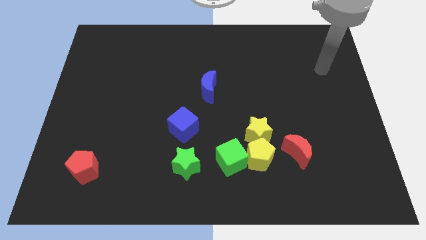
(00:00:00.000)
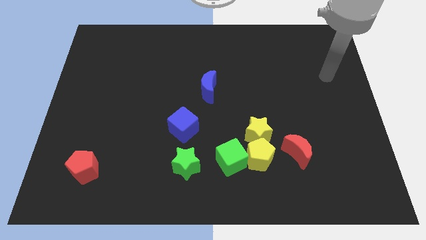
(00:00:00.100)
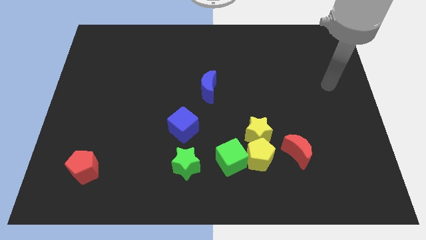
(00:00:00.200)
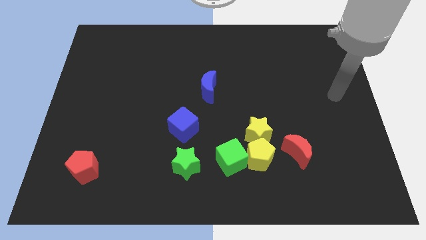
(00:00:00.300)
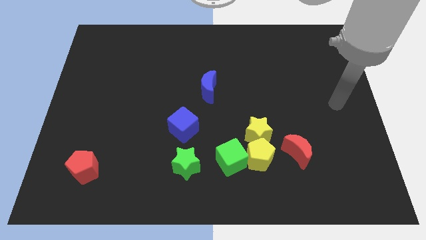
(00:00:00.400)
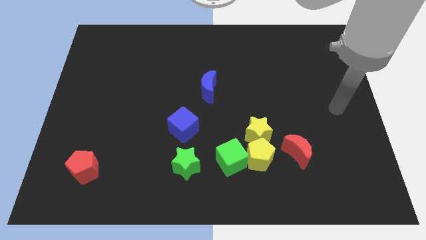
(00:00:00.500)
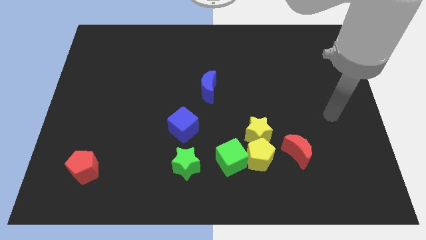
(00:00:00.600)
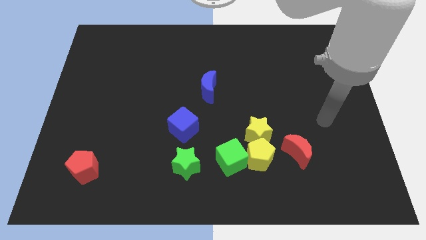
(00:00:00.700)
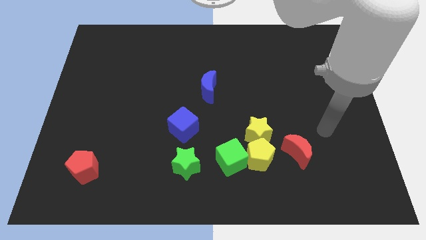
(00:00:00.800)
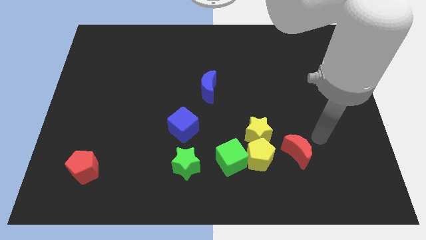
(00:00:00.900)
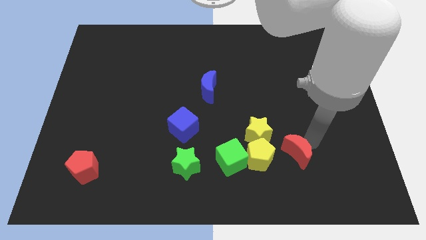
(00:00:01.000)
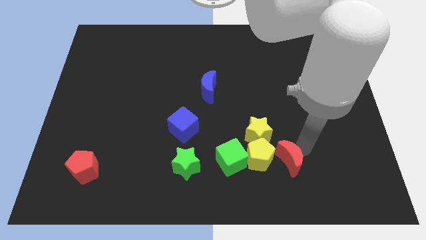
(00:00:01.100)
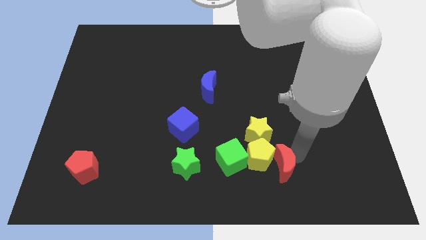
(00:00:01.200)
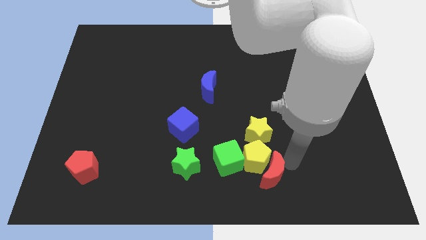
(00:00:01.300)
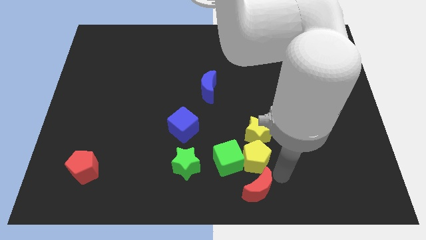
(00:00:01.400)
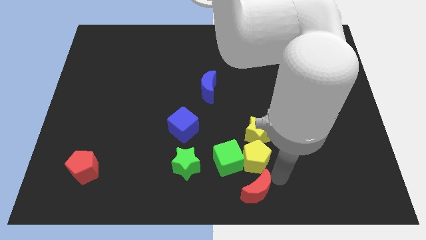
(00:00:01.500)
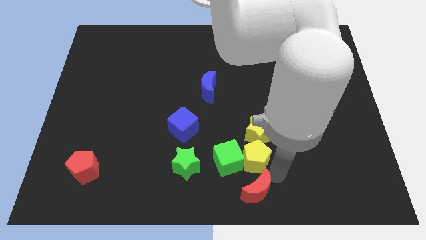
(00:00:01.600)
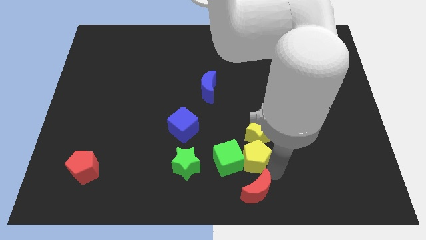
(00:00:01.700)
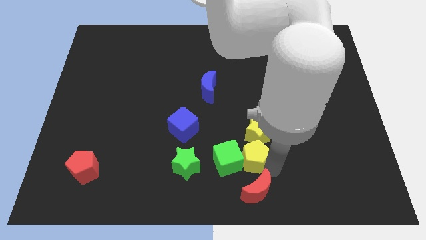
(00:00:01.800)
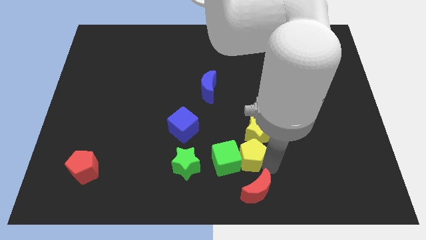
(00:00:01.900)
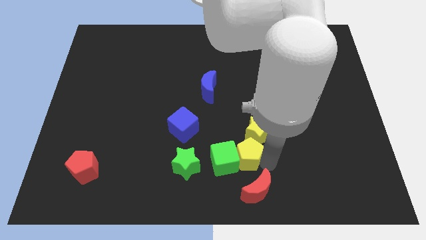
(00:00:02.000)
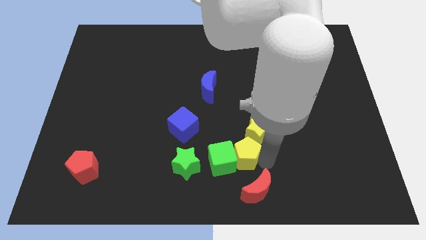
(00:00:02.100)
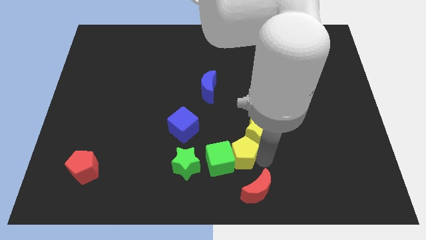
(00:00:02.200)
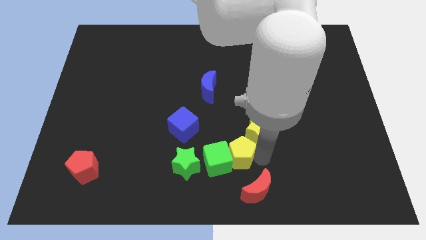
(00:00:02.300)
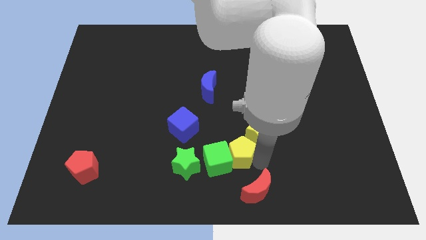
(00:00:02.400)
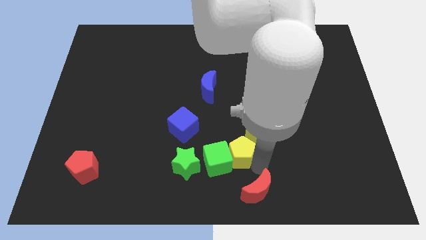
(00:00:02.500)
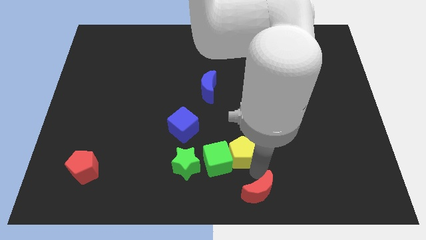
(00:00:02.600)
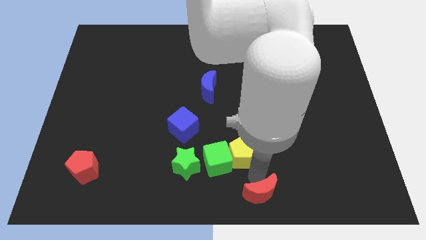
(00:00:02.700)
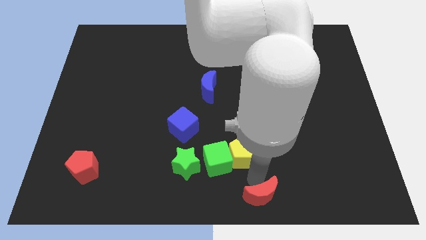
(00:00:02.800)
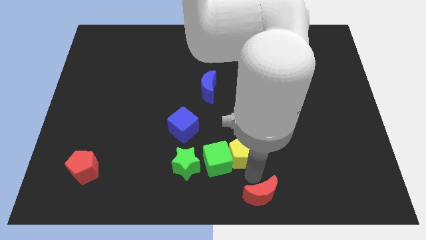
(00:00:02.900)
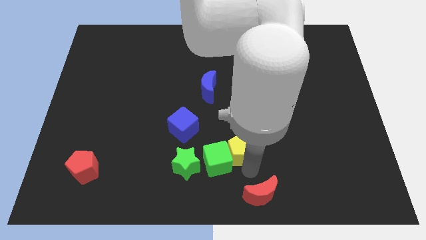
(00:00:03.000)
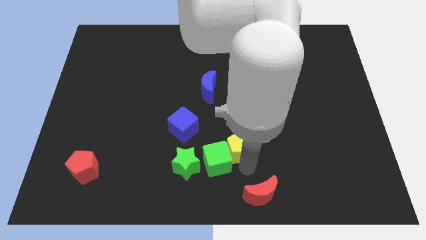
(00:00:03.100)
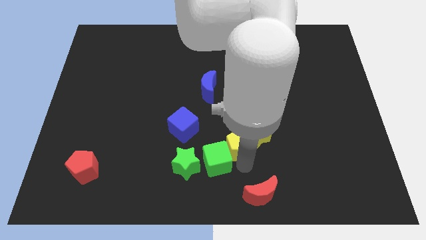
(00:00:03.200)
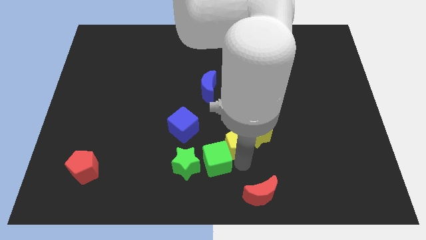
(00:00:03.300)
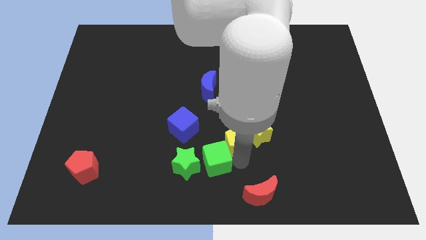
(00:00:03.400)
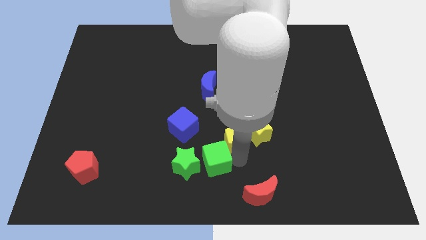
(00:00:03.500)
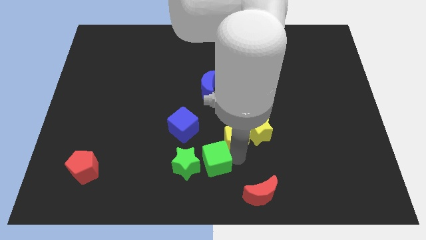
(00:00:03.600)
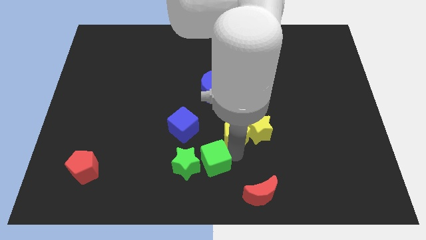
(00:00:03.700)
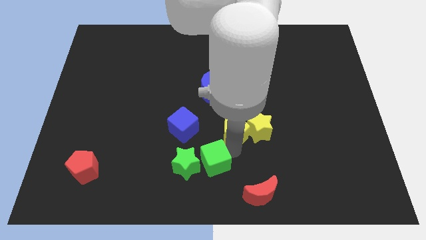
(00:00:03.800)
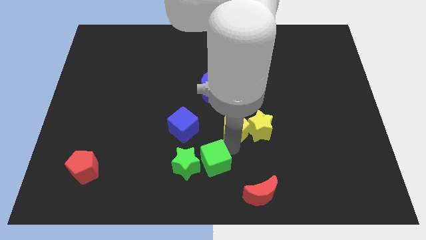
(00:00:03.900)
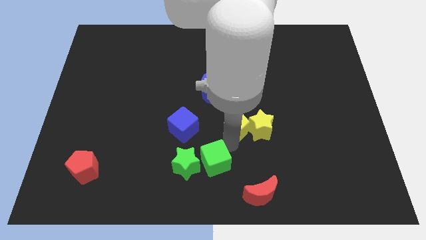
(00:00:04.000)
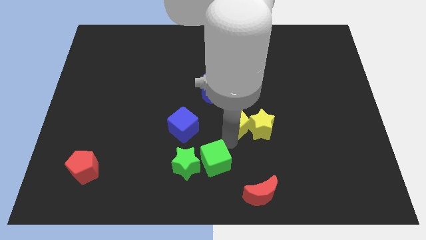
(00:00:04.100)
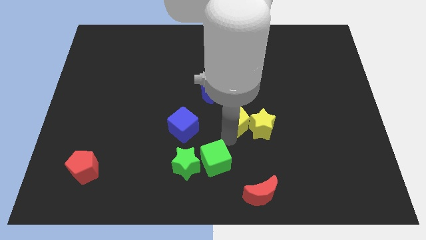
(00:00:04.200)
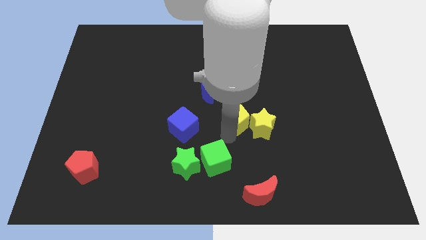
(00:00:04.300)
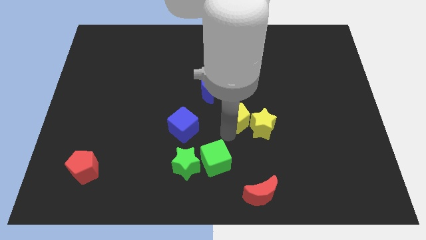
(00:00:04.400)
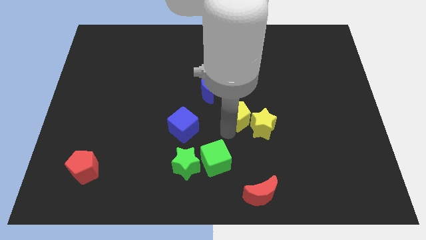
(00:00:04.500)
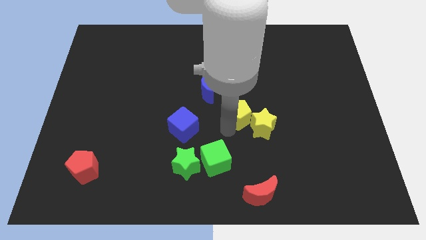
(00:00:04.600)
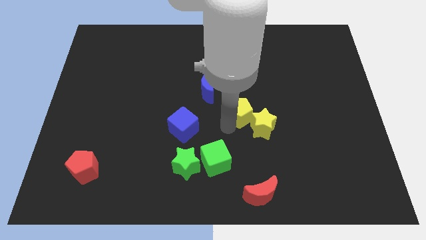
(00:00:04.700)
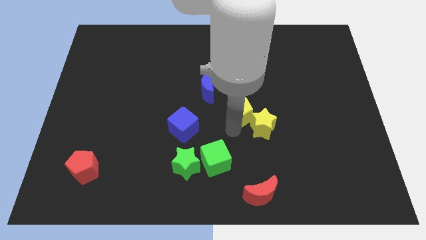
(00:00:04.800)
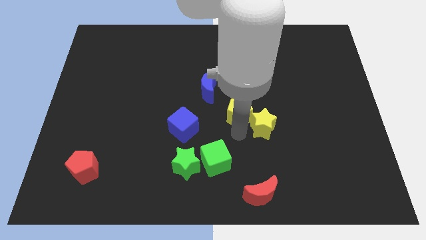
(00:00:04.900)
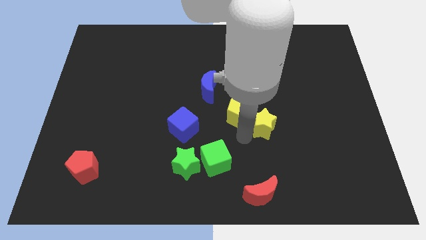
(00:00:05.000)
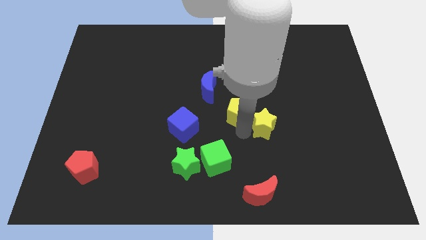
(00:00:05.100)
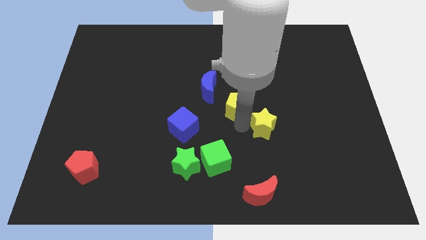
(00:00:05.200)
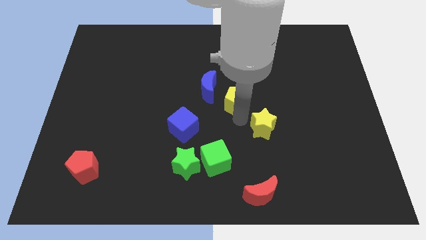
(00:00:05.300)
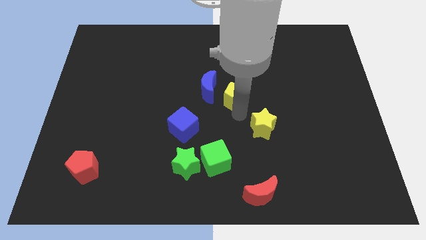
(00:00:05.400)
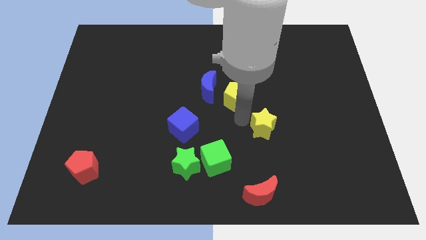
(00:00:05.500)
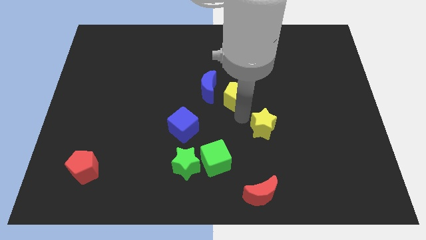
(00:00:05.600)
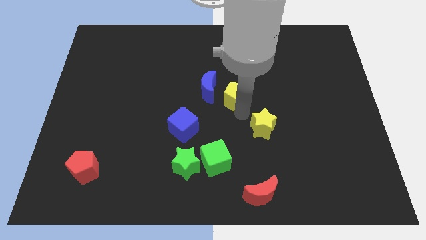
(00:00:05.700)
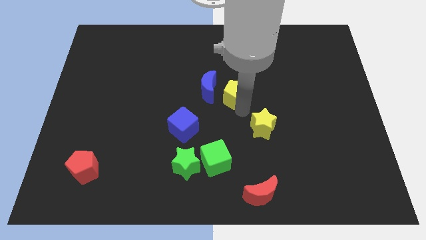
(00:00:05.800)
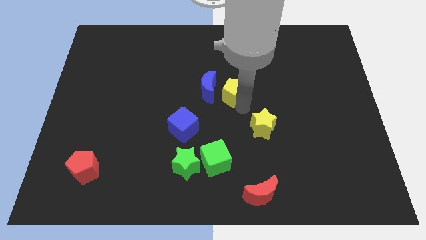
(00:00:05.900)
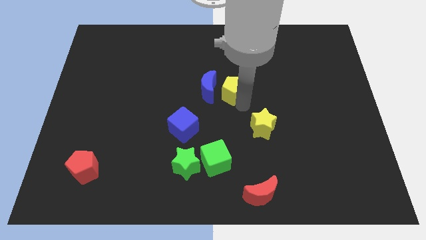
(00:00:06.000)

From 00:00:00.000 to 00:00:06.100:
slide the yellow pentagon to the top right of the blue moon

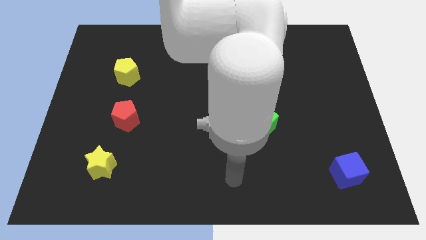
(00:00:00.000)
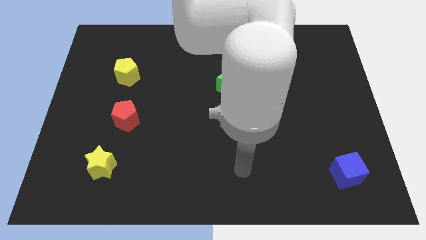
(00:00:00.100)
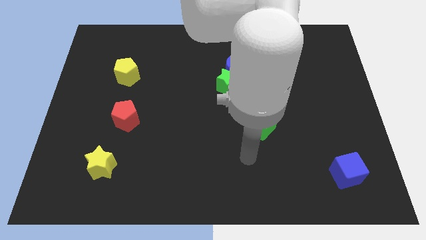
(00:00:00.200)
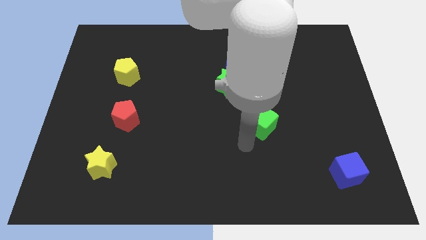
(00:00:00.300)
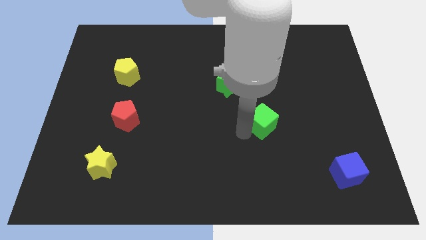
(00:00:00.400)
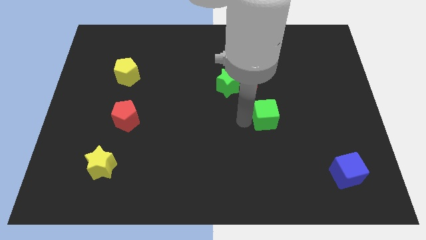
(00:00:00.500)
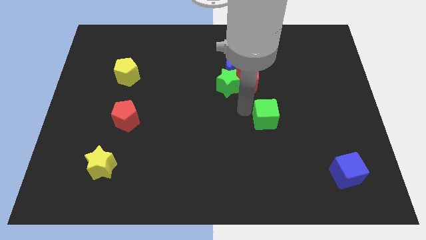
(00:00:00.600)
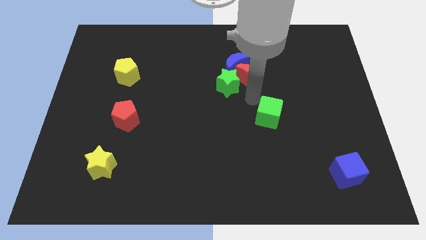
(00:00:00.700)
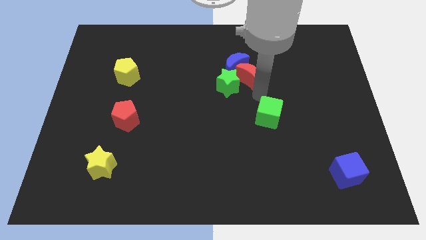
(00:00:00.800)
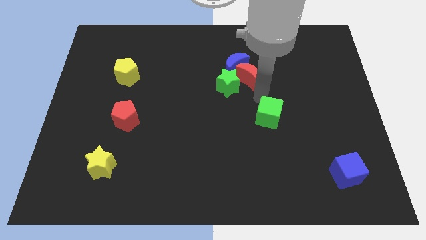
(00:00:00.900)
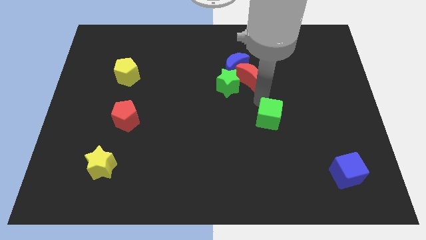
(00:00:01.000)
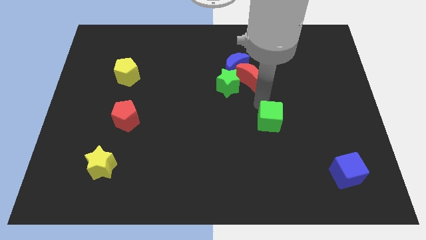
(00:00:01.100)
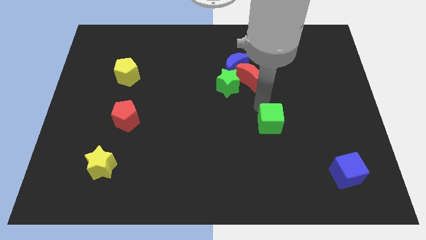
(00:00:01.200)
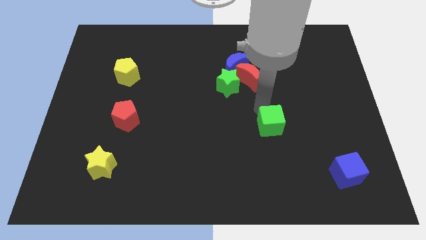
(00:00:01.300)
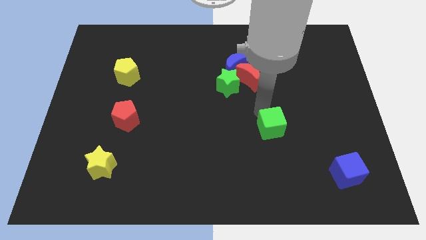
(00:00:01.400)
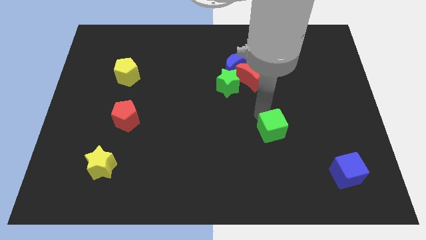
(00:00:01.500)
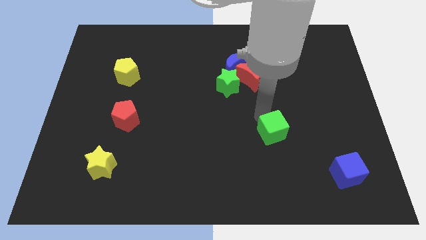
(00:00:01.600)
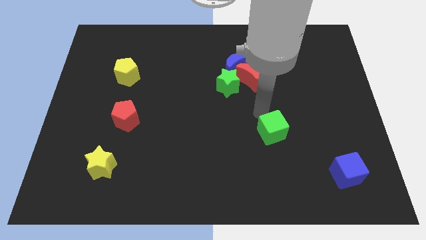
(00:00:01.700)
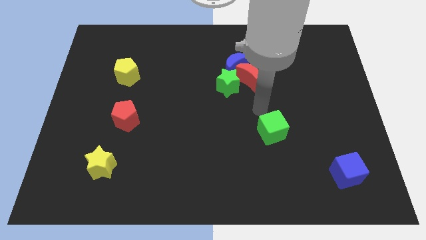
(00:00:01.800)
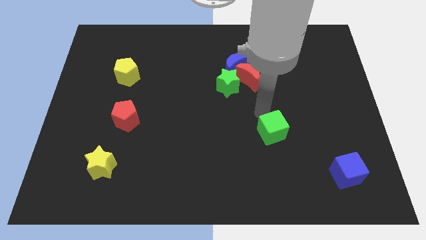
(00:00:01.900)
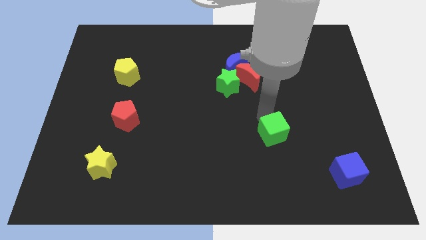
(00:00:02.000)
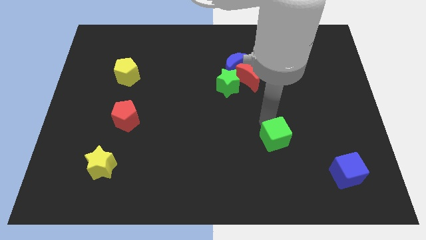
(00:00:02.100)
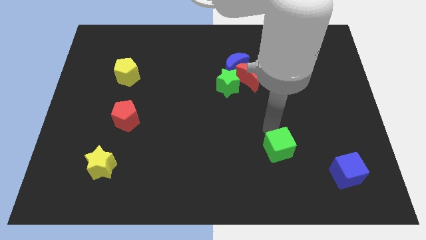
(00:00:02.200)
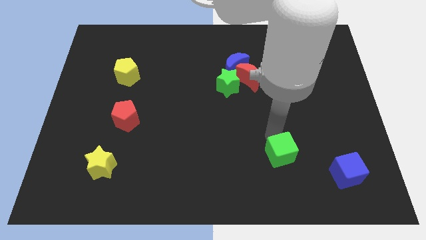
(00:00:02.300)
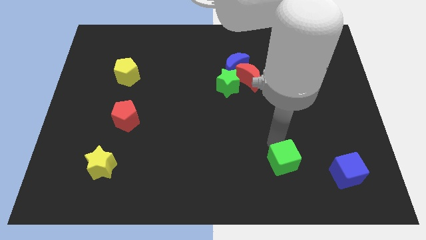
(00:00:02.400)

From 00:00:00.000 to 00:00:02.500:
put the green cube to the left of the blue cube
